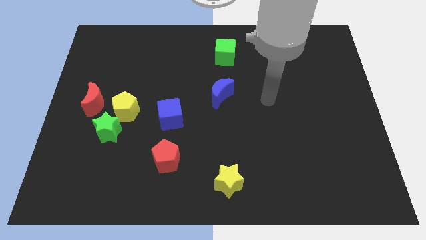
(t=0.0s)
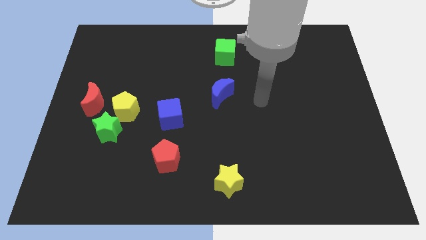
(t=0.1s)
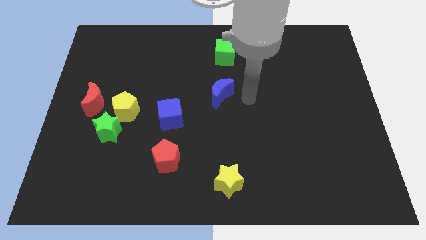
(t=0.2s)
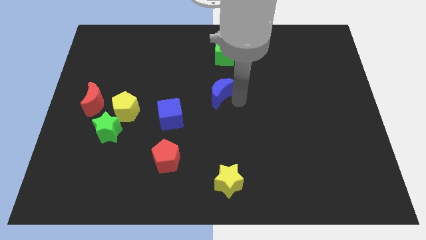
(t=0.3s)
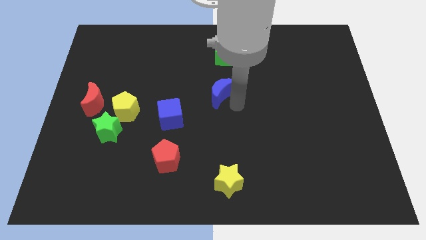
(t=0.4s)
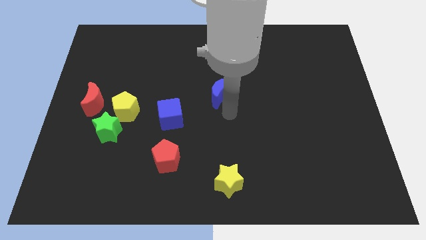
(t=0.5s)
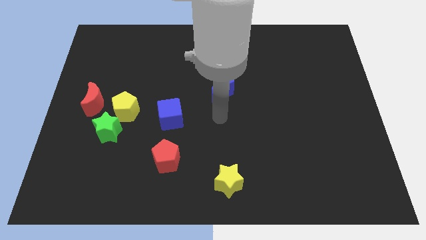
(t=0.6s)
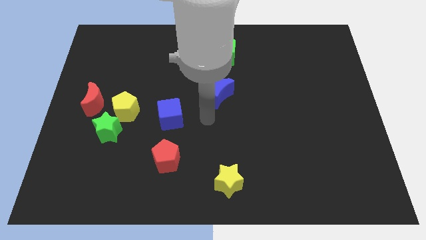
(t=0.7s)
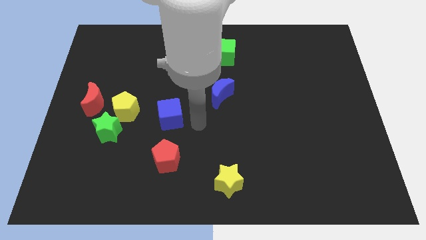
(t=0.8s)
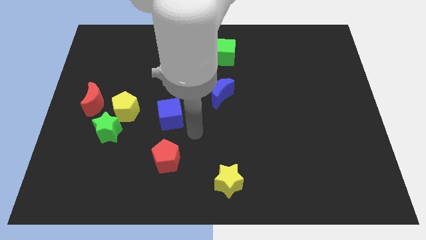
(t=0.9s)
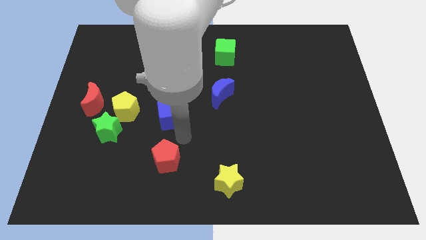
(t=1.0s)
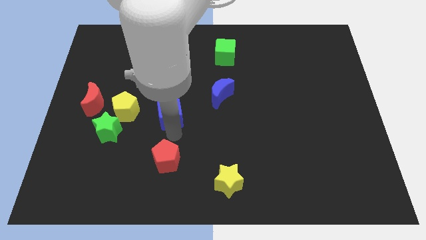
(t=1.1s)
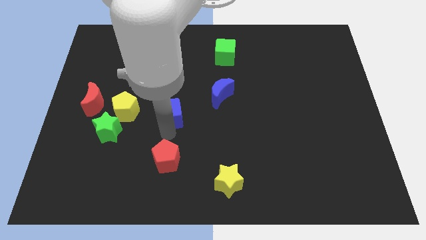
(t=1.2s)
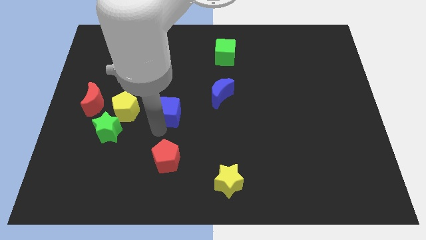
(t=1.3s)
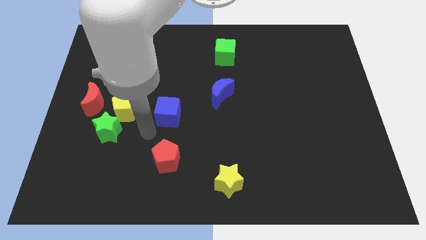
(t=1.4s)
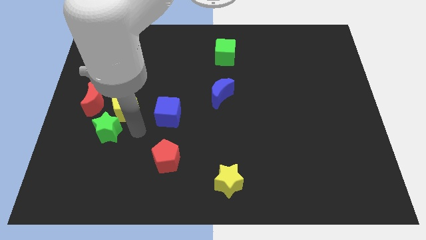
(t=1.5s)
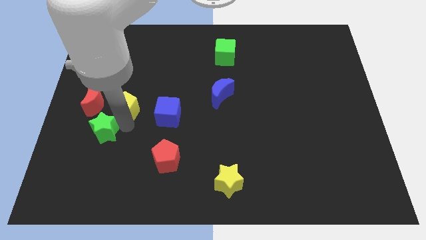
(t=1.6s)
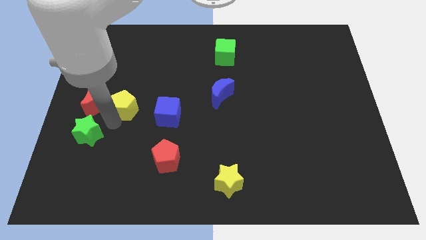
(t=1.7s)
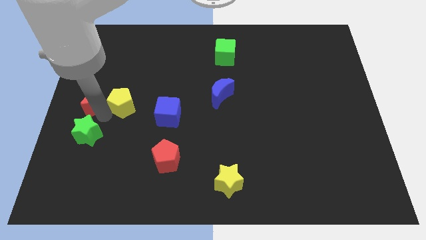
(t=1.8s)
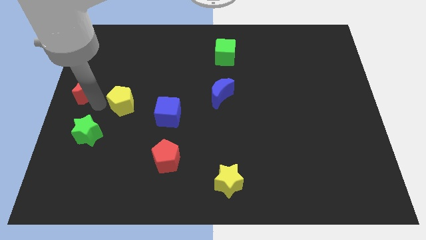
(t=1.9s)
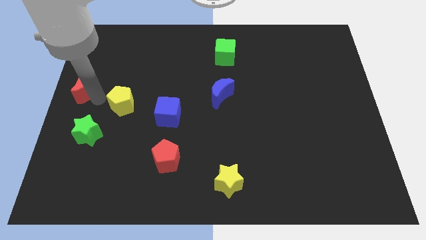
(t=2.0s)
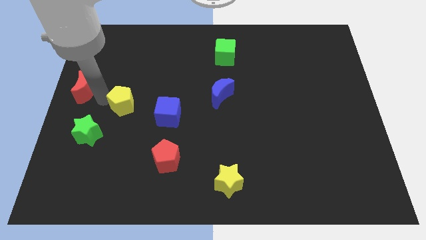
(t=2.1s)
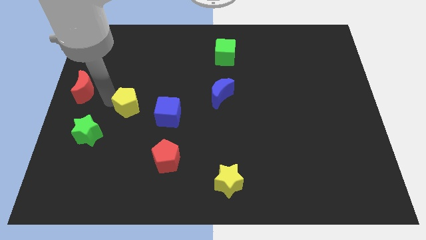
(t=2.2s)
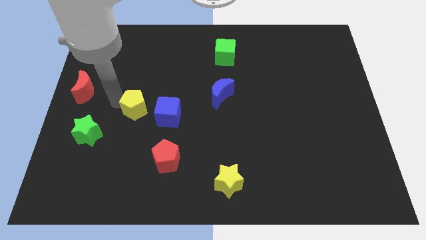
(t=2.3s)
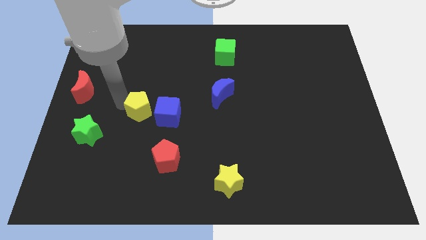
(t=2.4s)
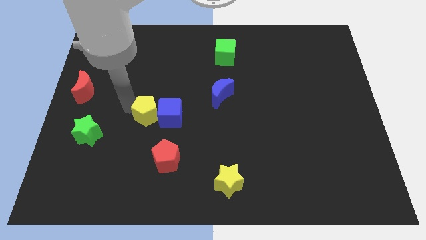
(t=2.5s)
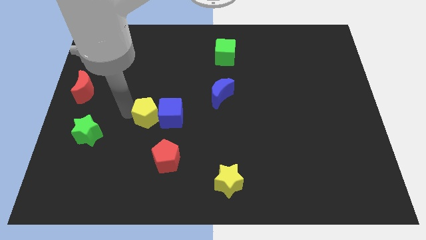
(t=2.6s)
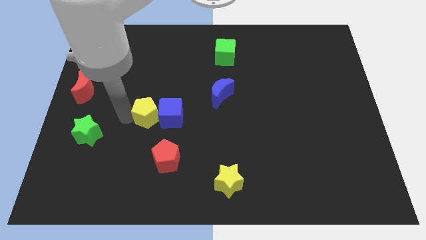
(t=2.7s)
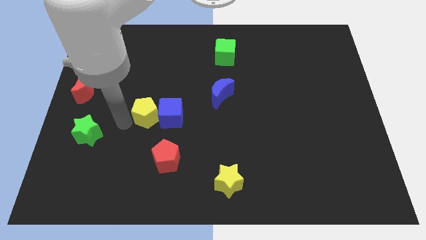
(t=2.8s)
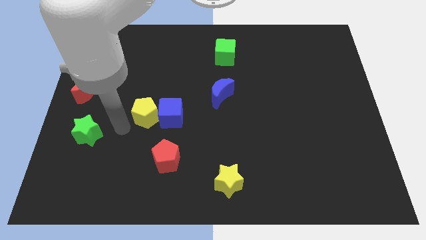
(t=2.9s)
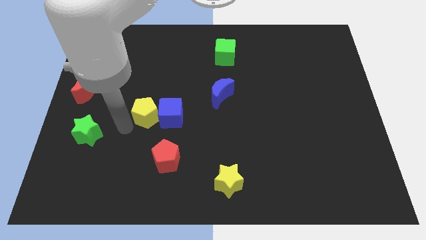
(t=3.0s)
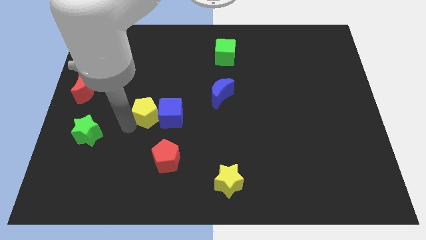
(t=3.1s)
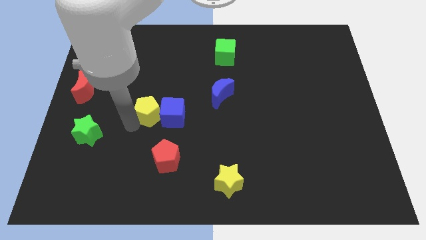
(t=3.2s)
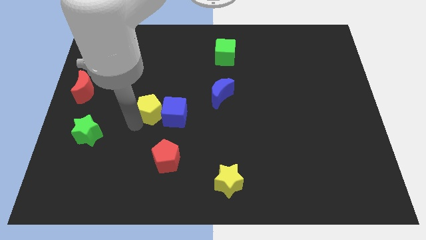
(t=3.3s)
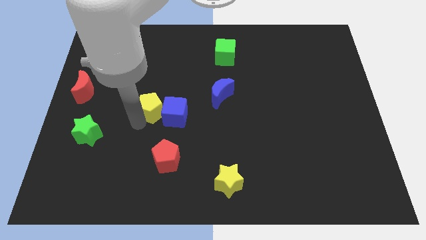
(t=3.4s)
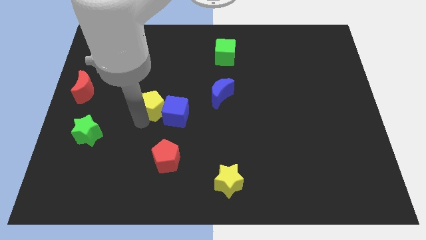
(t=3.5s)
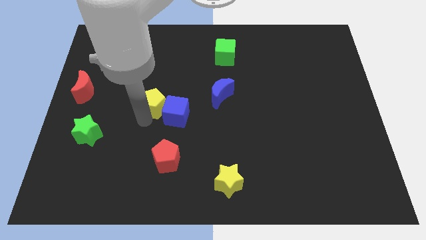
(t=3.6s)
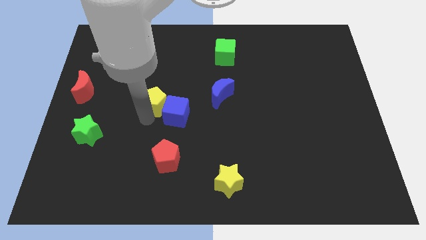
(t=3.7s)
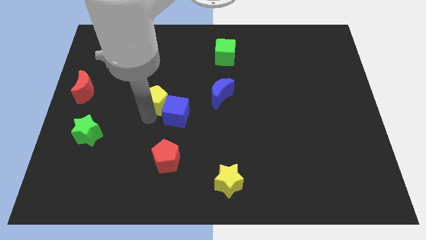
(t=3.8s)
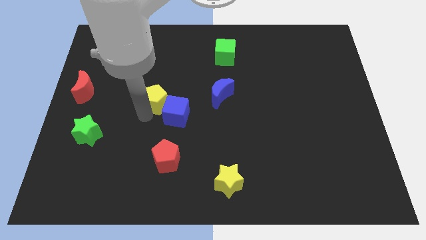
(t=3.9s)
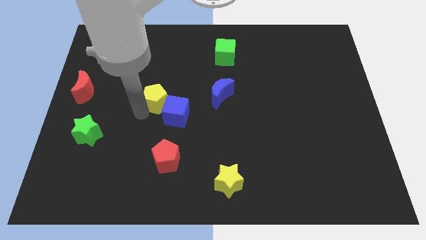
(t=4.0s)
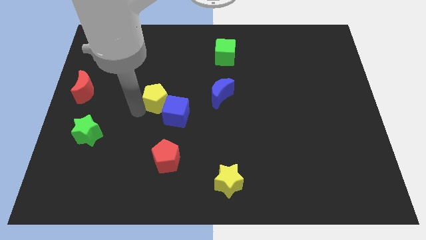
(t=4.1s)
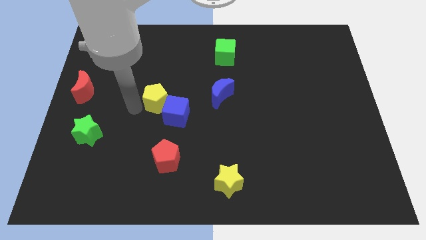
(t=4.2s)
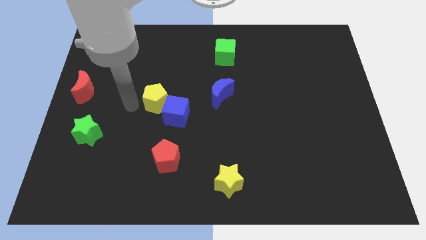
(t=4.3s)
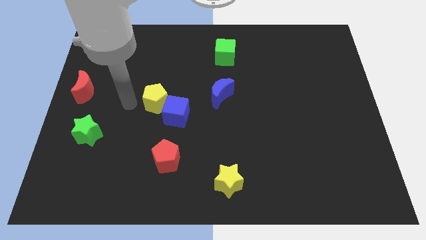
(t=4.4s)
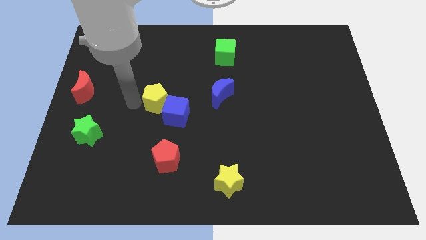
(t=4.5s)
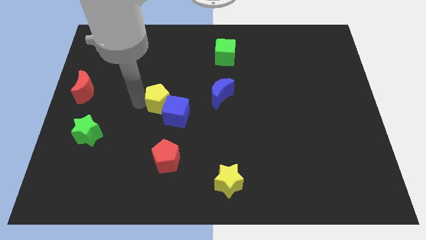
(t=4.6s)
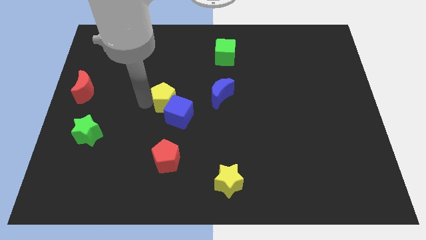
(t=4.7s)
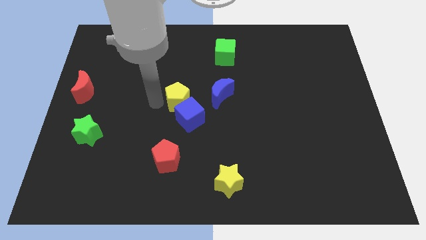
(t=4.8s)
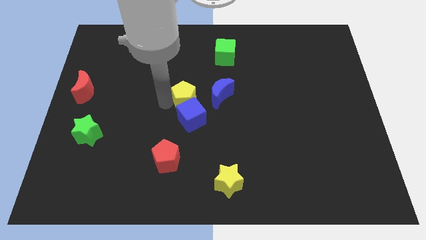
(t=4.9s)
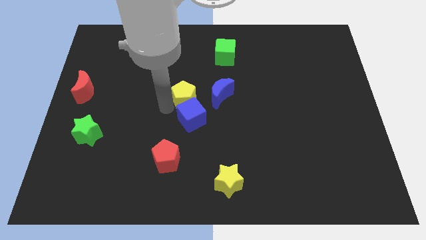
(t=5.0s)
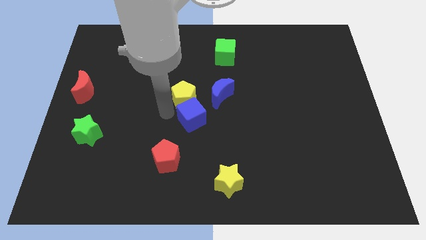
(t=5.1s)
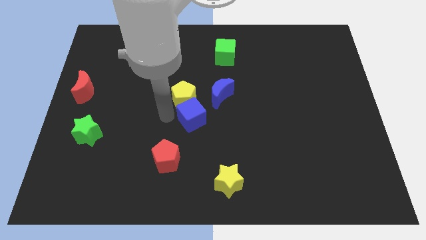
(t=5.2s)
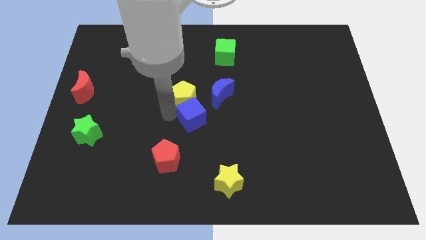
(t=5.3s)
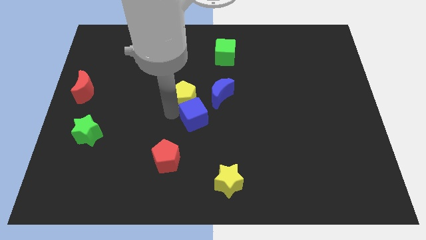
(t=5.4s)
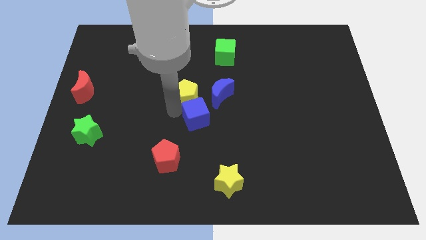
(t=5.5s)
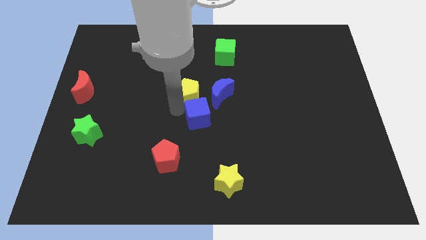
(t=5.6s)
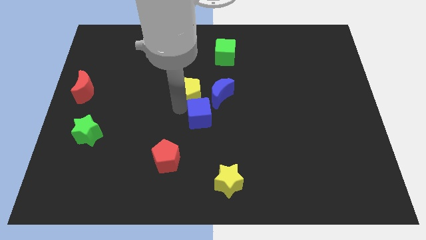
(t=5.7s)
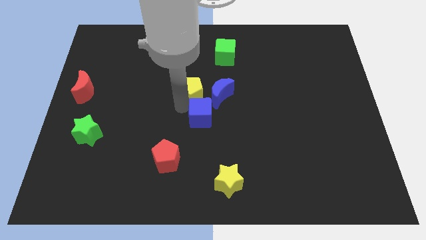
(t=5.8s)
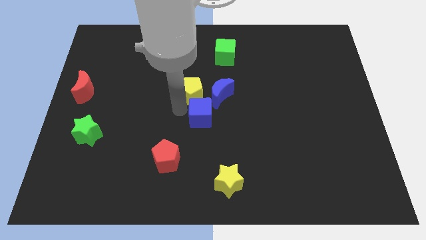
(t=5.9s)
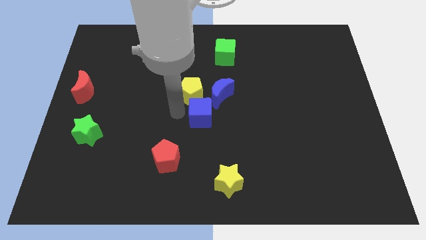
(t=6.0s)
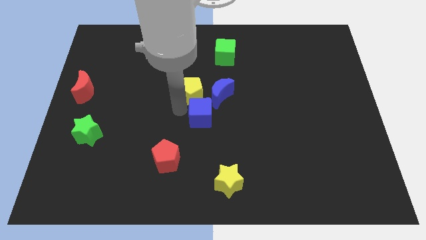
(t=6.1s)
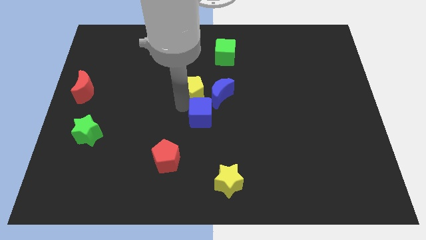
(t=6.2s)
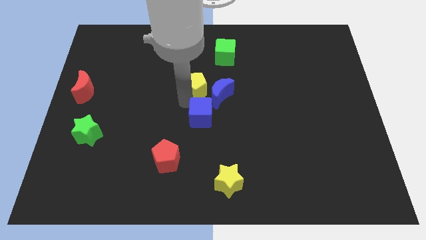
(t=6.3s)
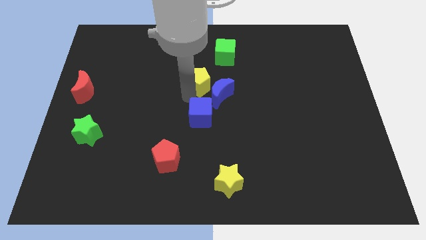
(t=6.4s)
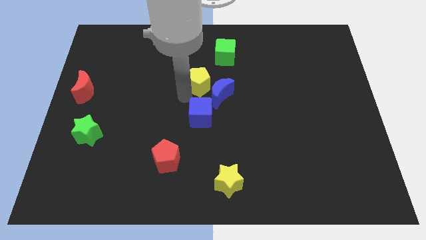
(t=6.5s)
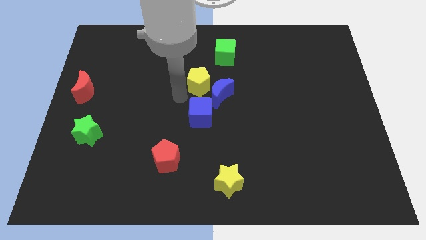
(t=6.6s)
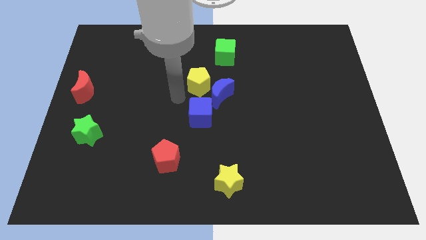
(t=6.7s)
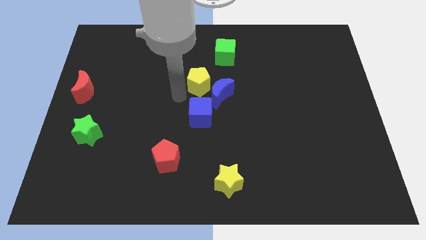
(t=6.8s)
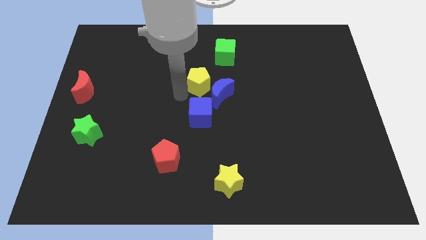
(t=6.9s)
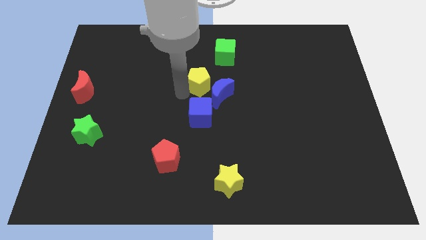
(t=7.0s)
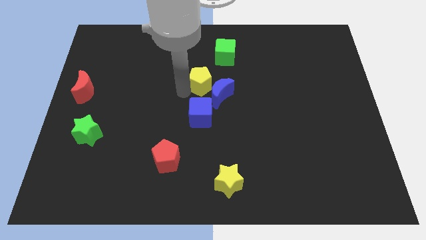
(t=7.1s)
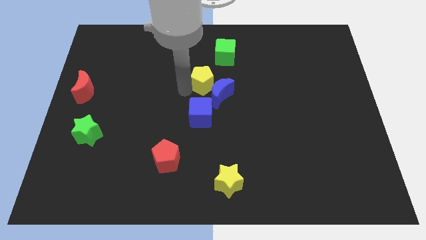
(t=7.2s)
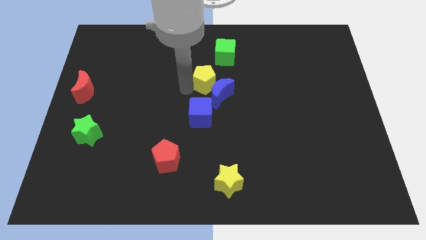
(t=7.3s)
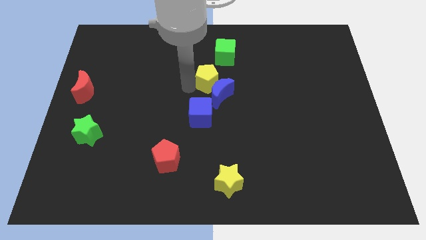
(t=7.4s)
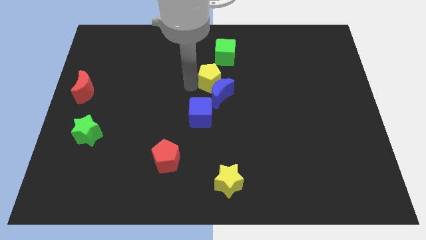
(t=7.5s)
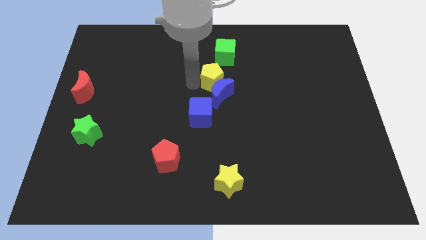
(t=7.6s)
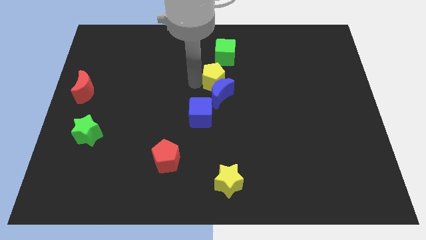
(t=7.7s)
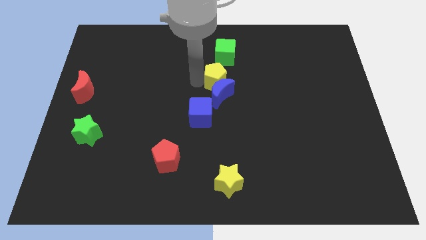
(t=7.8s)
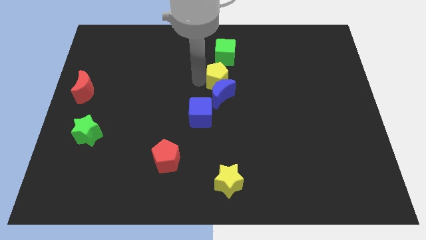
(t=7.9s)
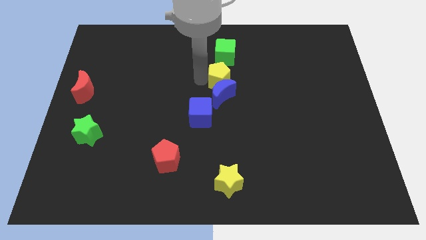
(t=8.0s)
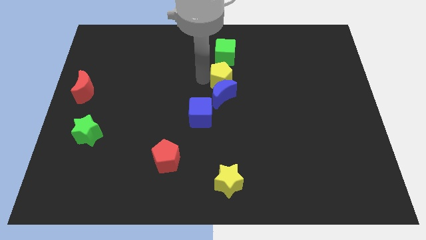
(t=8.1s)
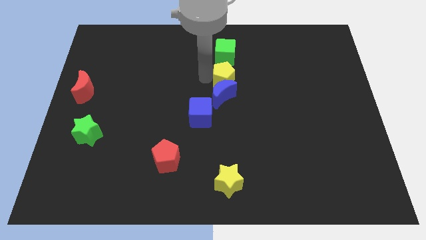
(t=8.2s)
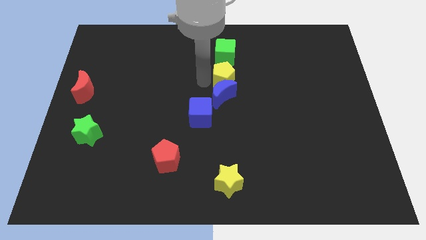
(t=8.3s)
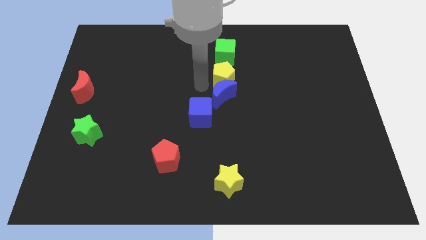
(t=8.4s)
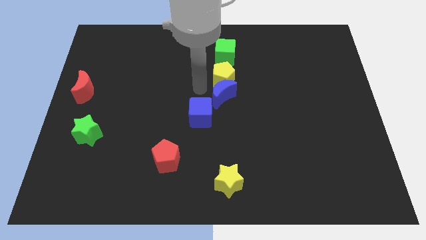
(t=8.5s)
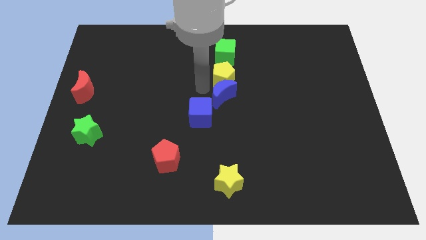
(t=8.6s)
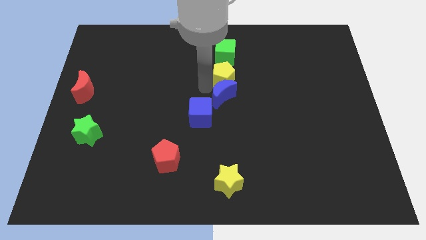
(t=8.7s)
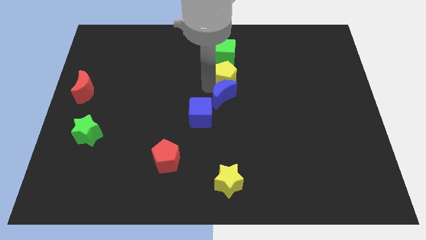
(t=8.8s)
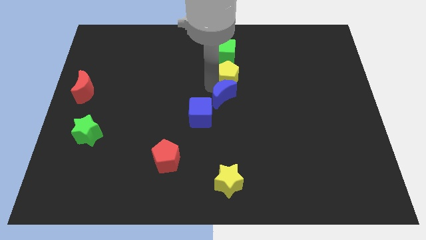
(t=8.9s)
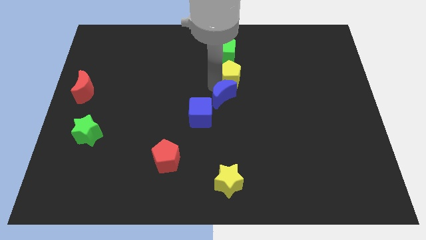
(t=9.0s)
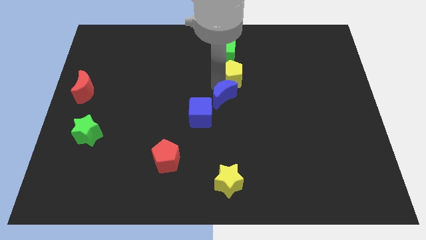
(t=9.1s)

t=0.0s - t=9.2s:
put the yellow pentagon to the bottom right side of the green cube
